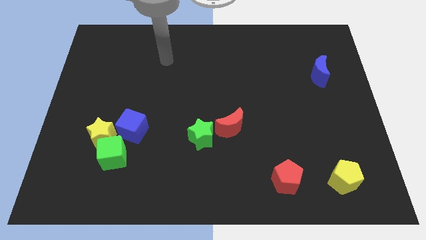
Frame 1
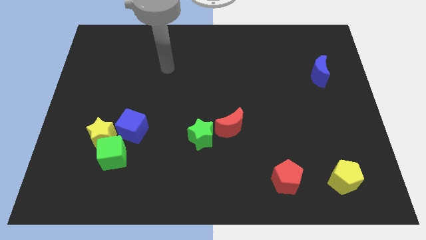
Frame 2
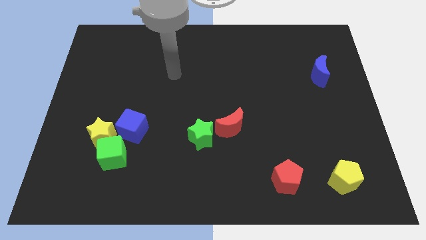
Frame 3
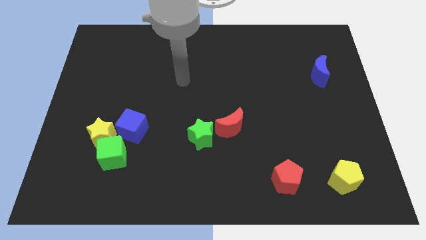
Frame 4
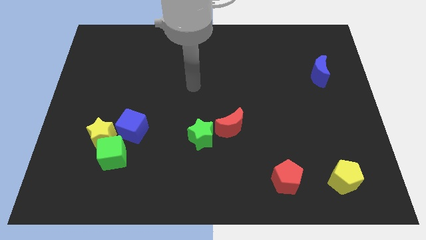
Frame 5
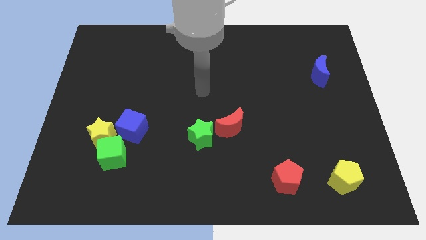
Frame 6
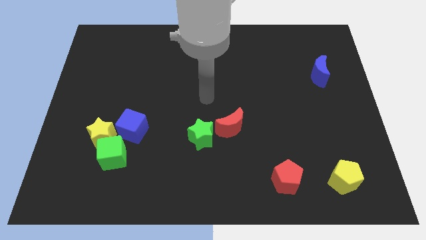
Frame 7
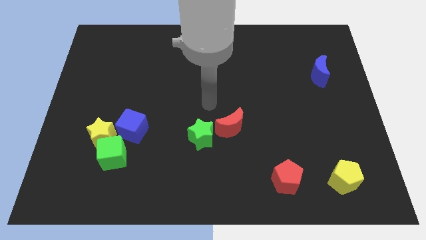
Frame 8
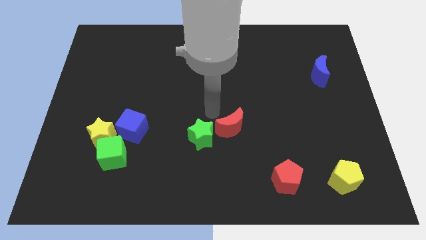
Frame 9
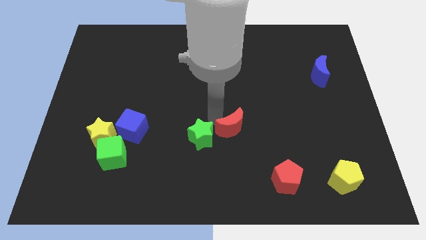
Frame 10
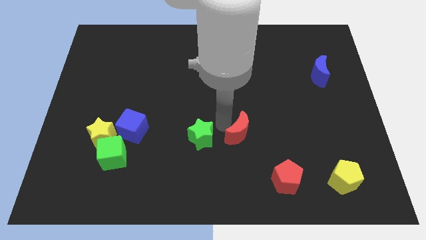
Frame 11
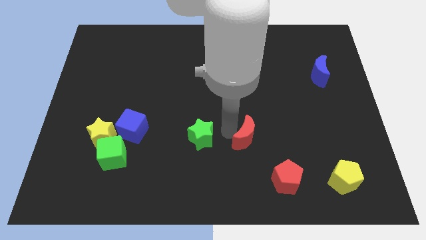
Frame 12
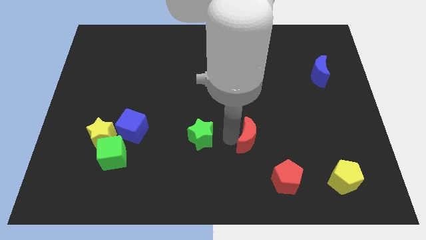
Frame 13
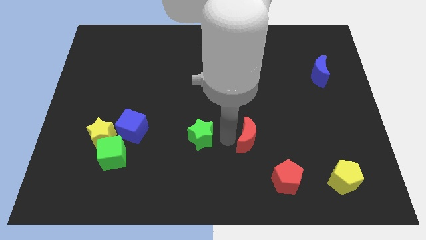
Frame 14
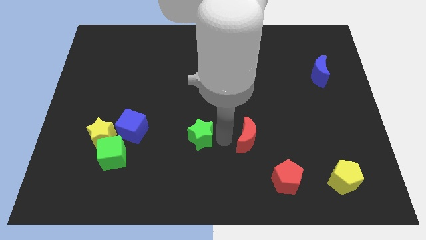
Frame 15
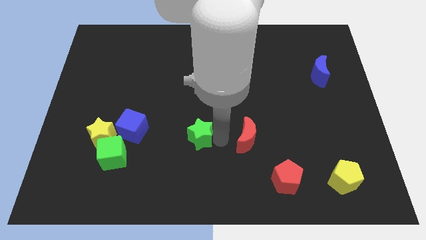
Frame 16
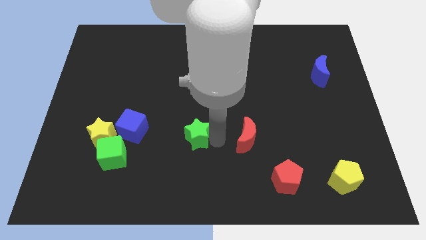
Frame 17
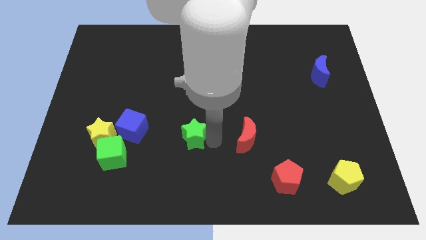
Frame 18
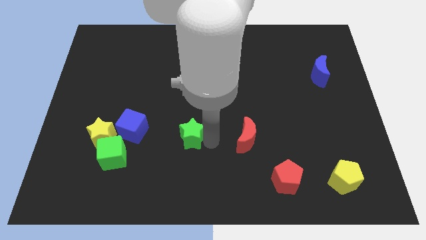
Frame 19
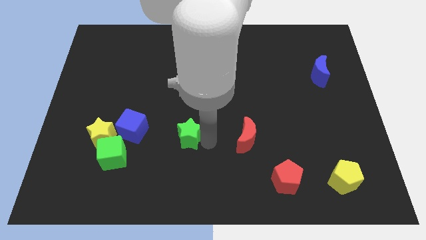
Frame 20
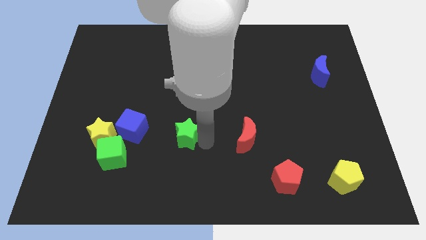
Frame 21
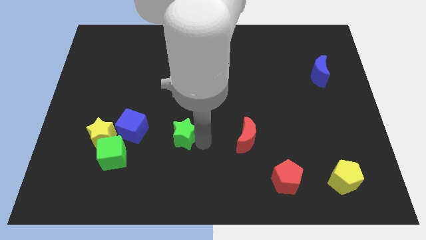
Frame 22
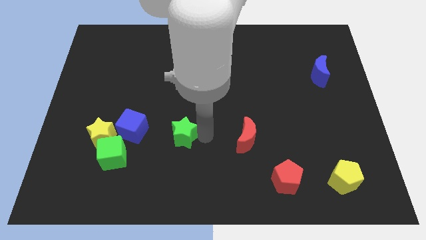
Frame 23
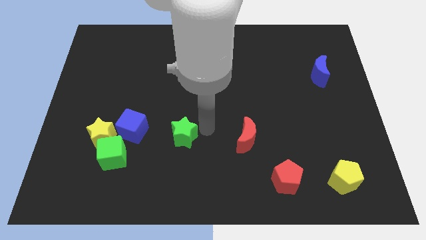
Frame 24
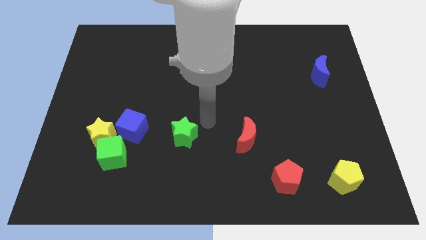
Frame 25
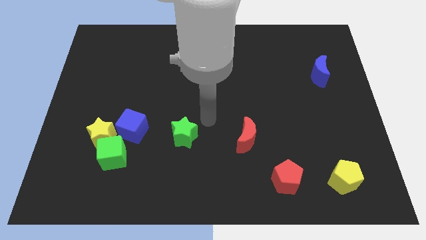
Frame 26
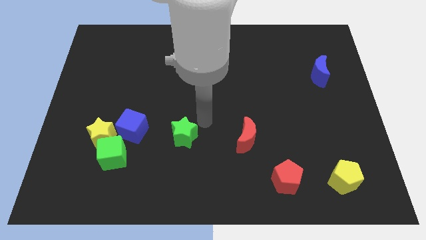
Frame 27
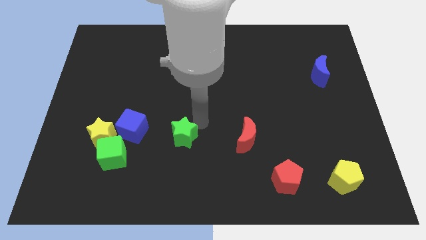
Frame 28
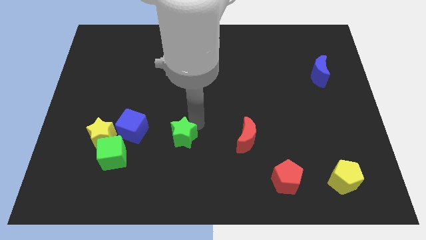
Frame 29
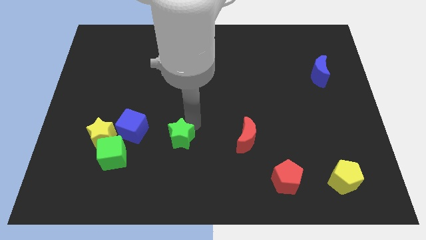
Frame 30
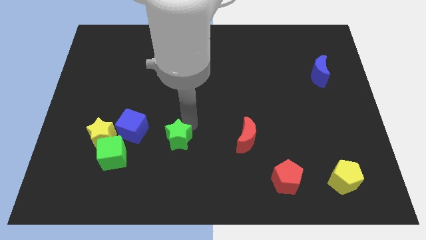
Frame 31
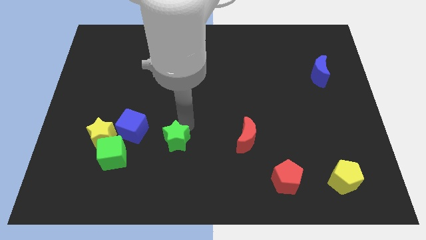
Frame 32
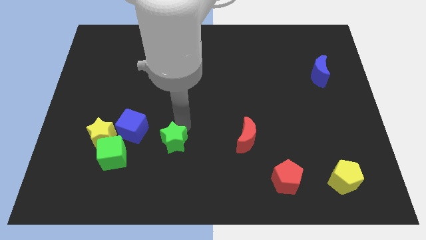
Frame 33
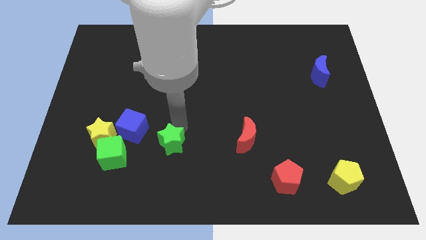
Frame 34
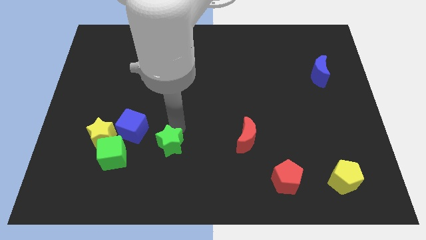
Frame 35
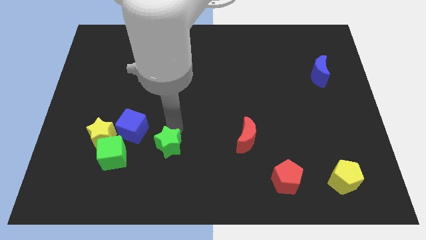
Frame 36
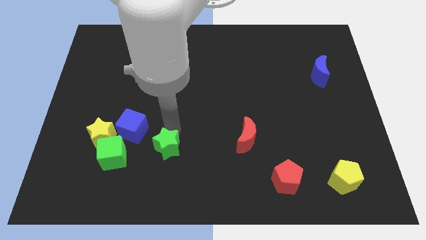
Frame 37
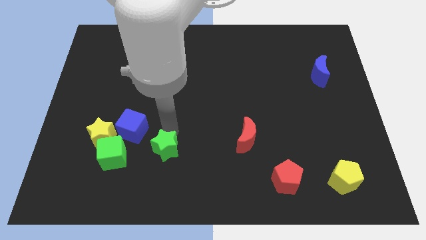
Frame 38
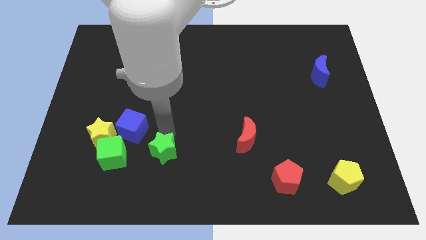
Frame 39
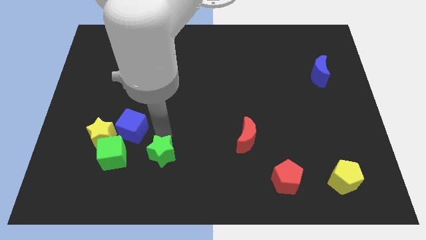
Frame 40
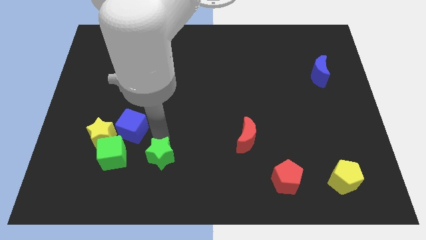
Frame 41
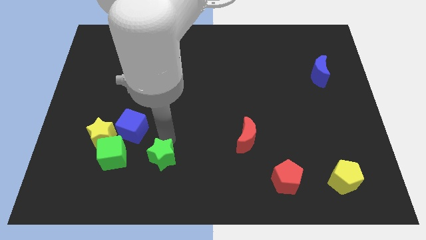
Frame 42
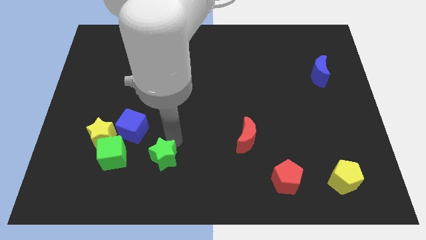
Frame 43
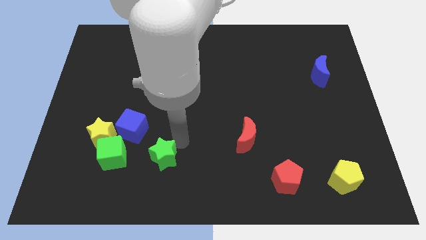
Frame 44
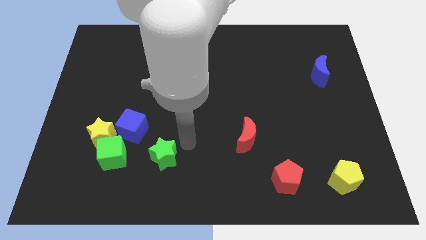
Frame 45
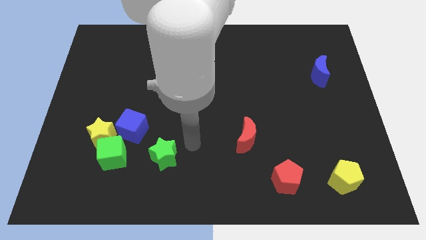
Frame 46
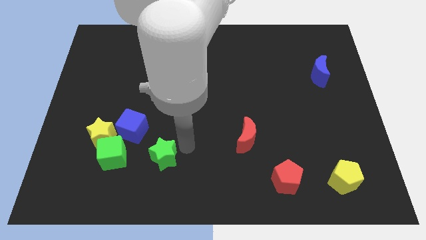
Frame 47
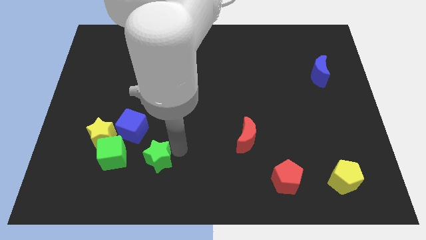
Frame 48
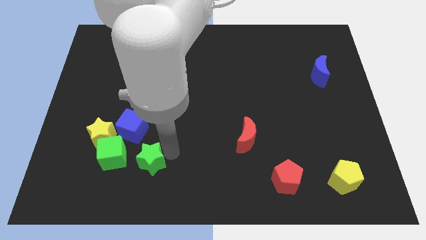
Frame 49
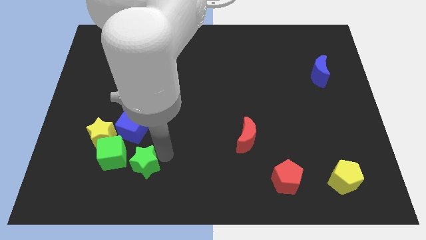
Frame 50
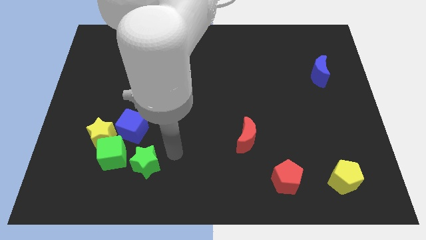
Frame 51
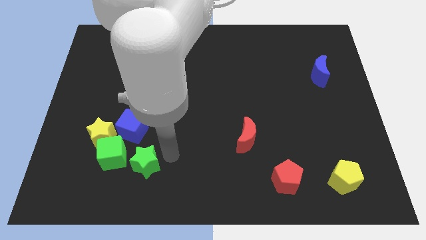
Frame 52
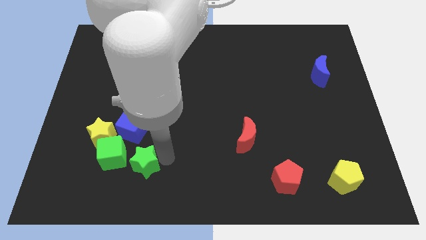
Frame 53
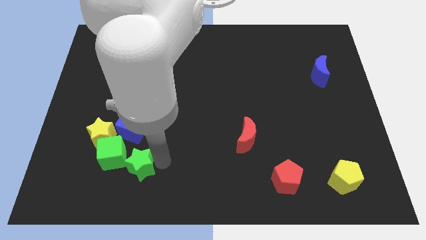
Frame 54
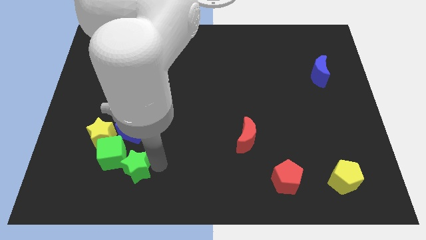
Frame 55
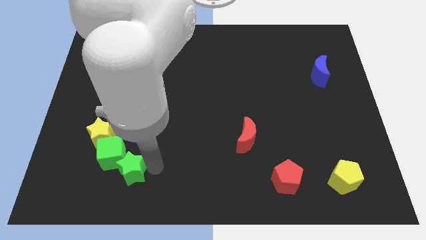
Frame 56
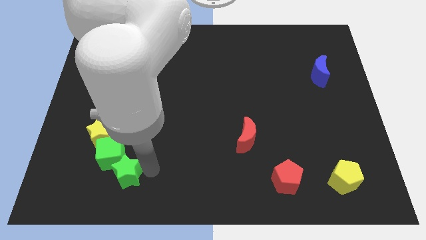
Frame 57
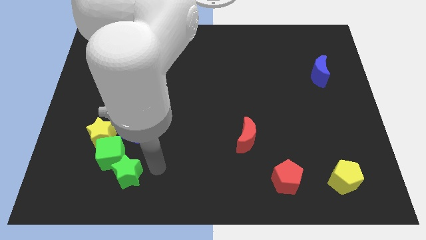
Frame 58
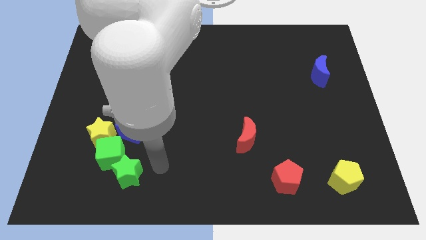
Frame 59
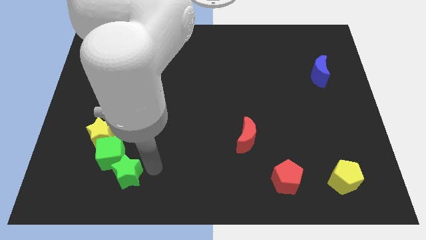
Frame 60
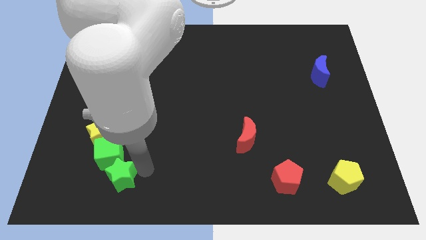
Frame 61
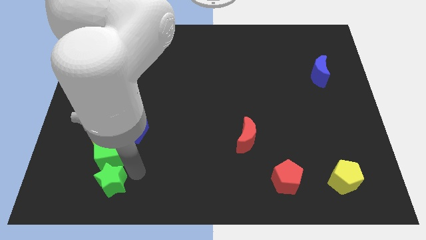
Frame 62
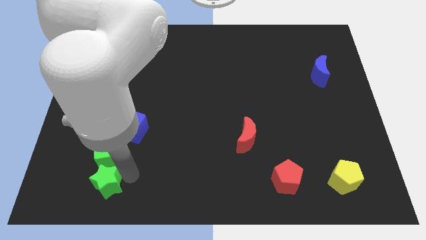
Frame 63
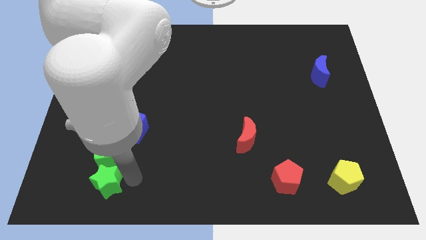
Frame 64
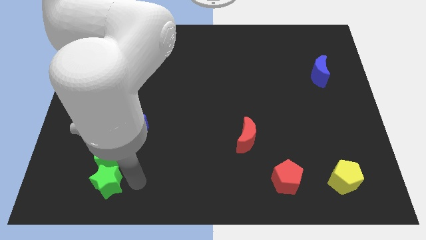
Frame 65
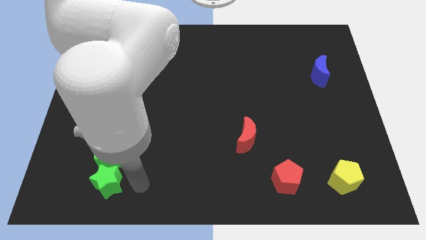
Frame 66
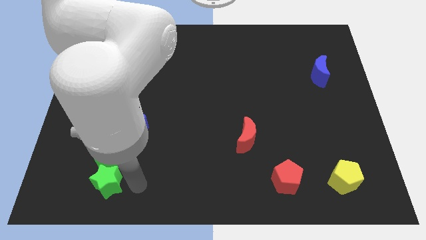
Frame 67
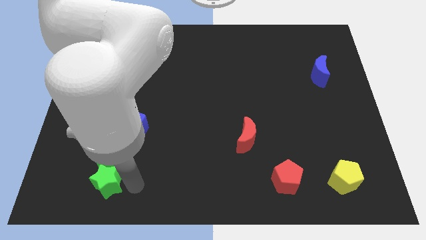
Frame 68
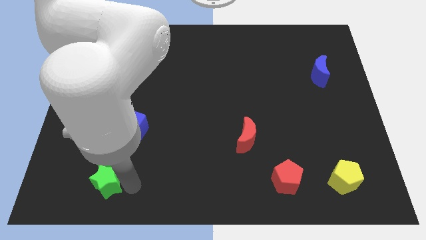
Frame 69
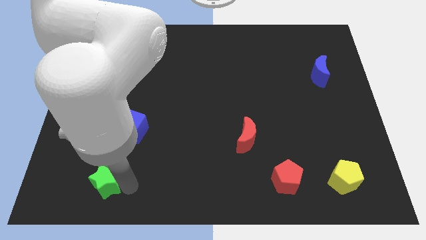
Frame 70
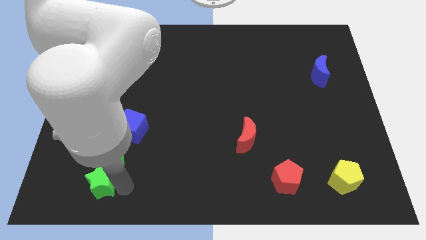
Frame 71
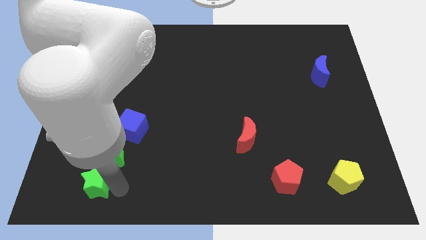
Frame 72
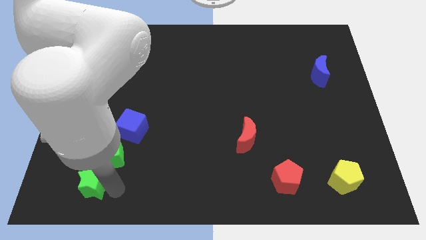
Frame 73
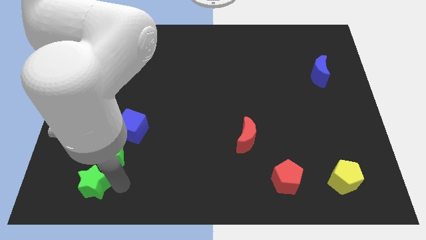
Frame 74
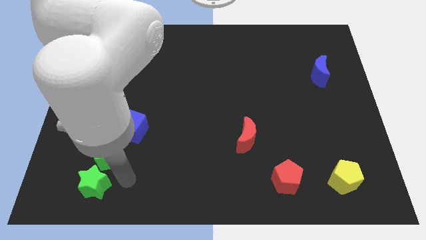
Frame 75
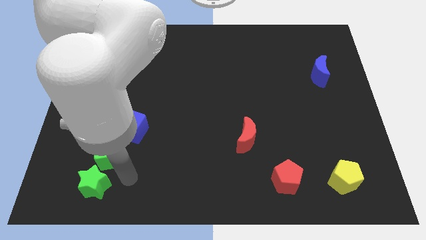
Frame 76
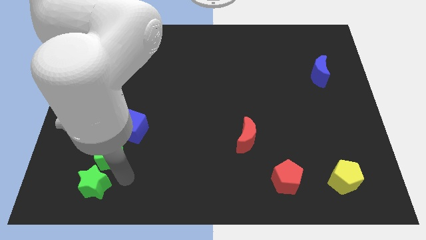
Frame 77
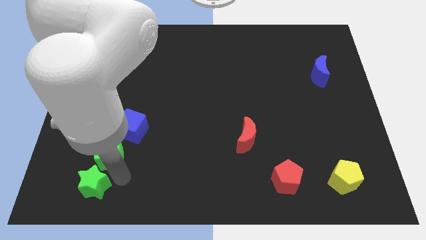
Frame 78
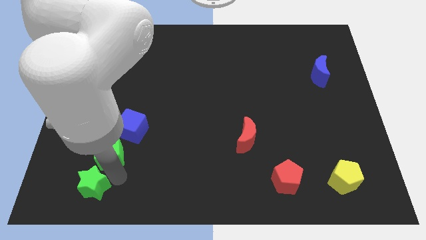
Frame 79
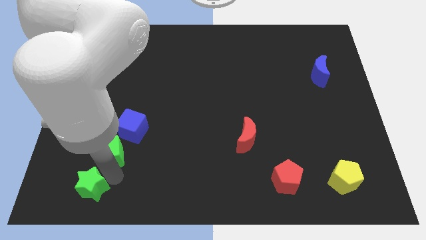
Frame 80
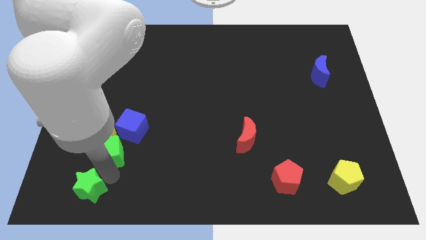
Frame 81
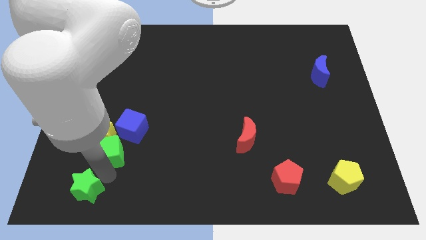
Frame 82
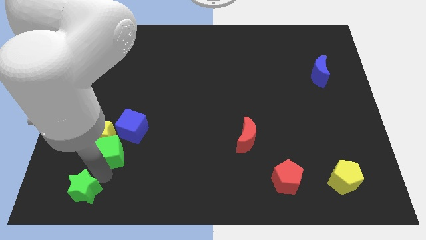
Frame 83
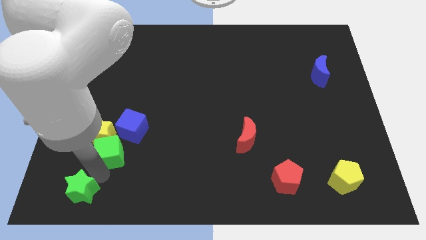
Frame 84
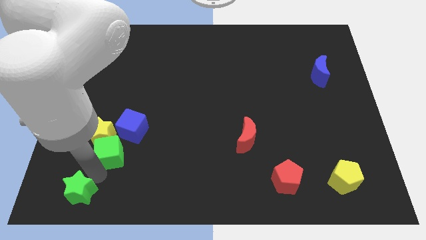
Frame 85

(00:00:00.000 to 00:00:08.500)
slide the green star to the bottom left

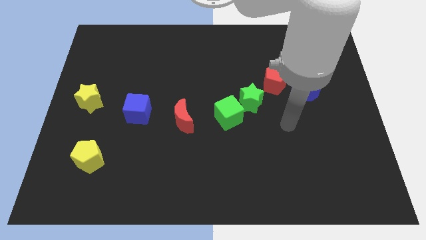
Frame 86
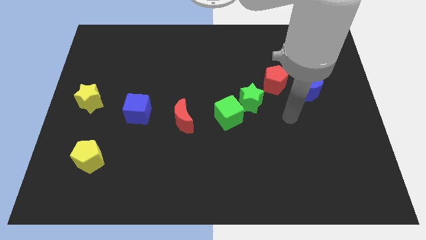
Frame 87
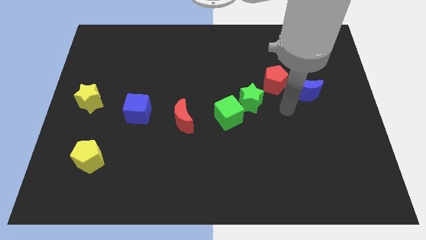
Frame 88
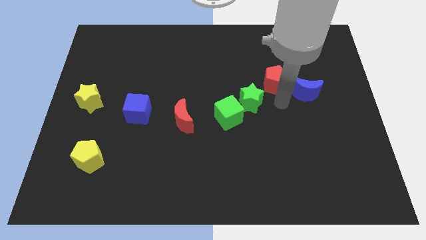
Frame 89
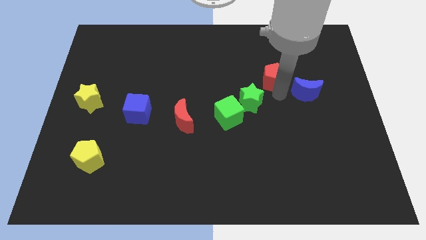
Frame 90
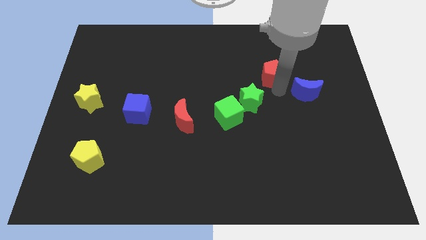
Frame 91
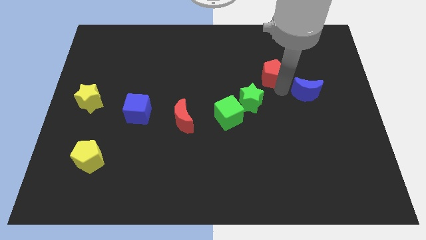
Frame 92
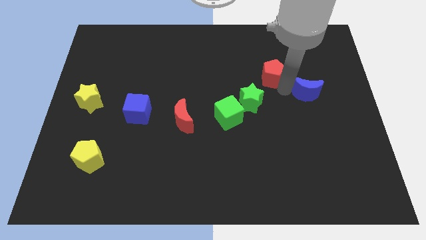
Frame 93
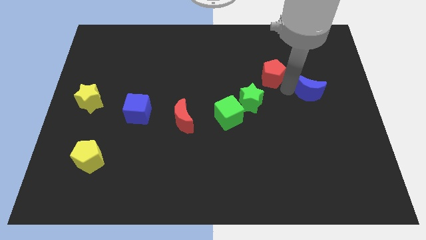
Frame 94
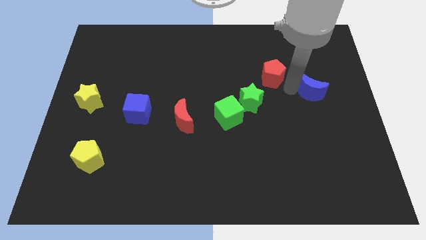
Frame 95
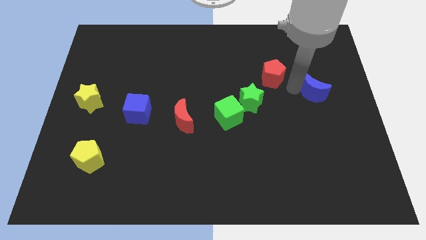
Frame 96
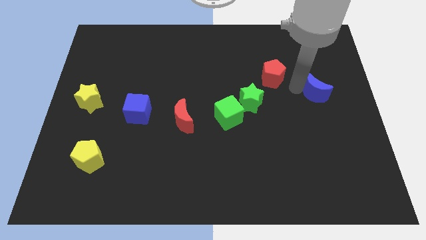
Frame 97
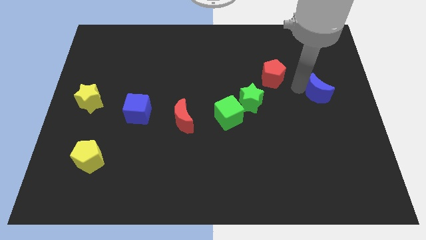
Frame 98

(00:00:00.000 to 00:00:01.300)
slide the blue moon to the right side
